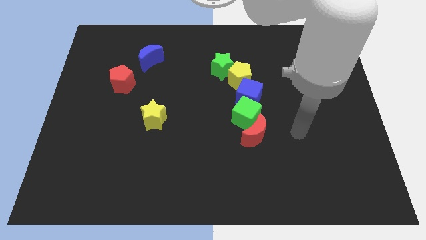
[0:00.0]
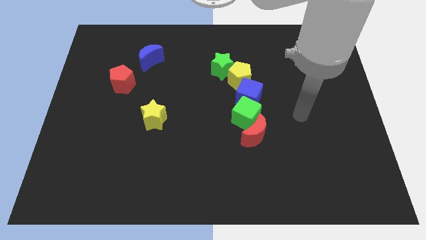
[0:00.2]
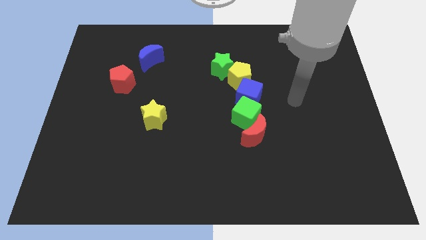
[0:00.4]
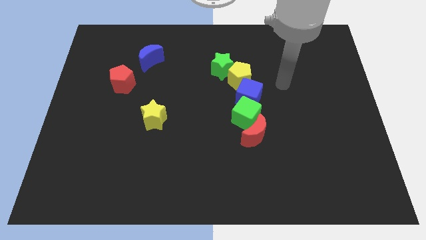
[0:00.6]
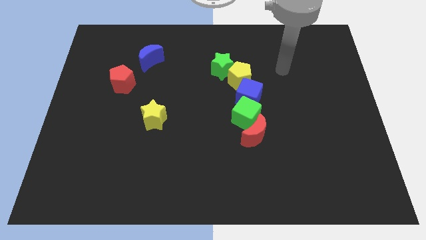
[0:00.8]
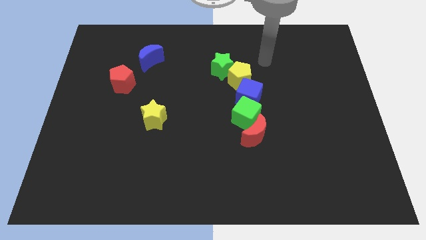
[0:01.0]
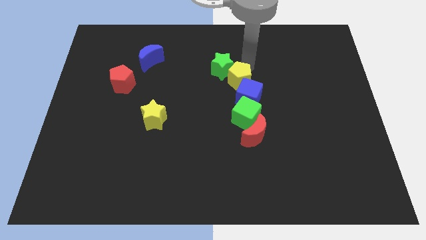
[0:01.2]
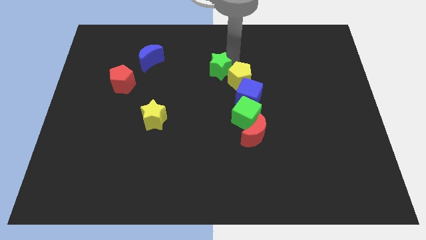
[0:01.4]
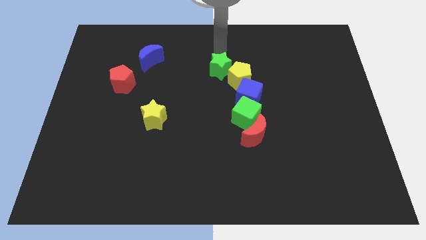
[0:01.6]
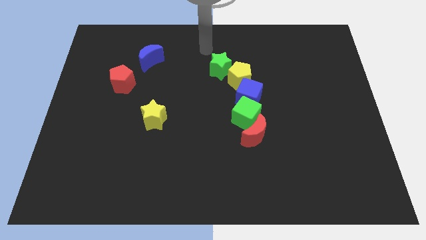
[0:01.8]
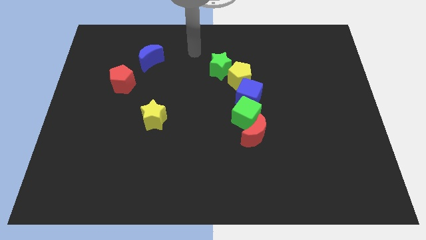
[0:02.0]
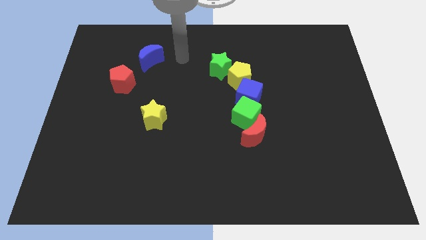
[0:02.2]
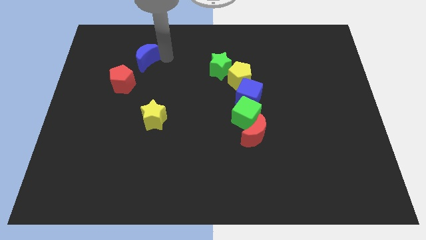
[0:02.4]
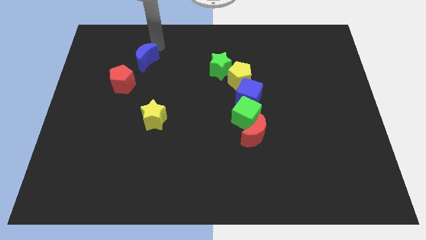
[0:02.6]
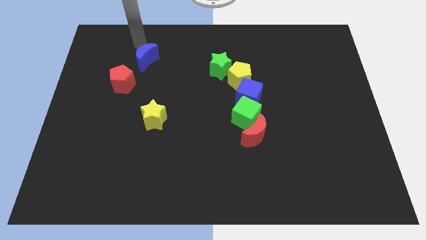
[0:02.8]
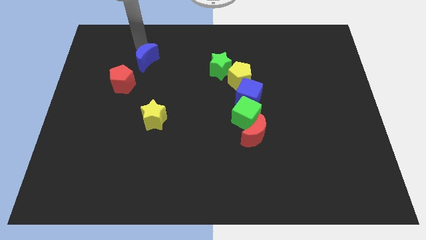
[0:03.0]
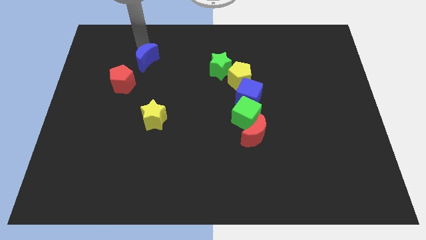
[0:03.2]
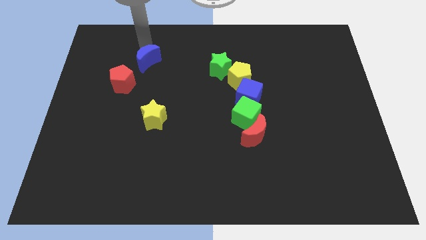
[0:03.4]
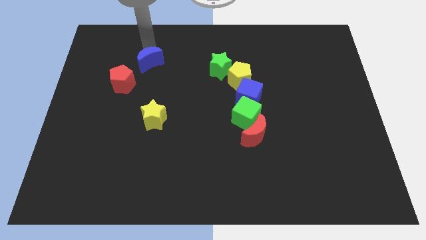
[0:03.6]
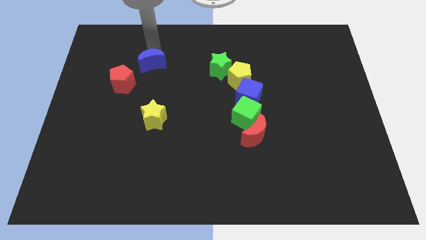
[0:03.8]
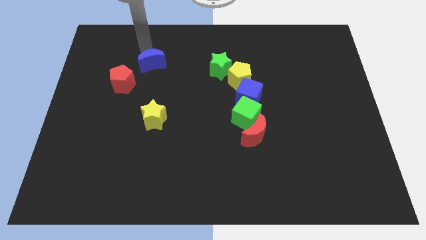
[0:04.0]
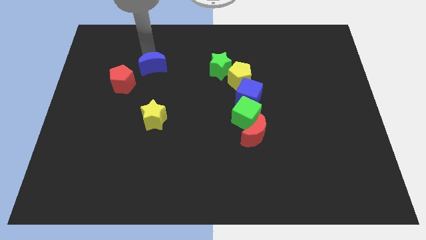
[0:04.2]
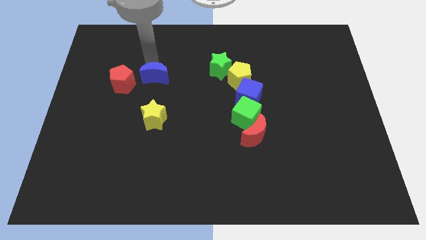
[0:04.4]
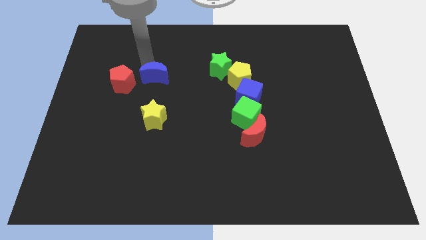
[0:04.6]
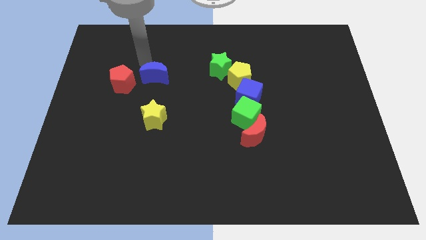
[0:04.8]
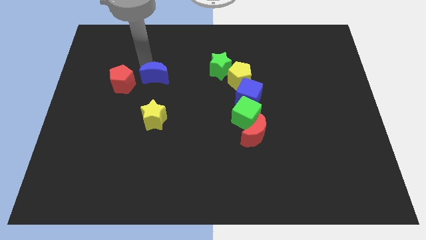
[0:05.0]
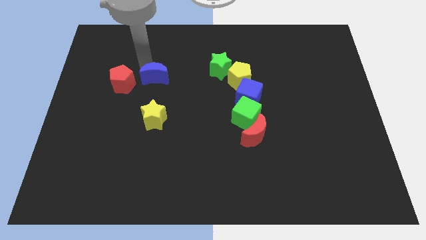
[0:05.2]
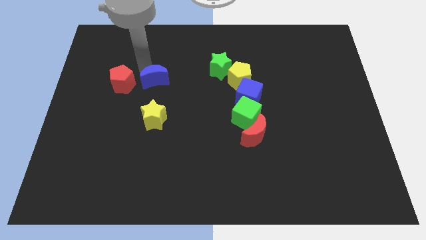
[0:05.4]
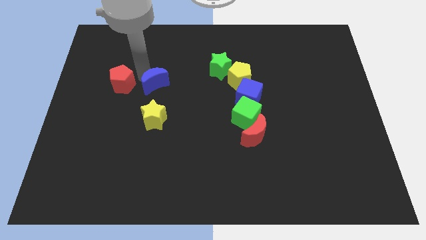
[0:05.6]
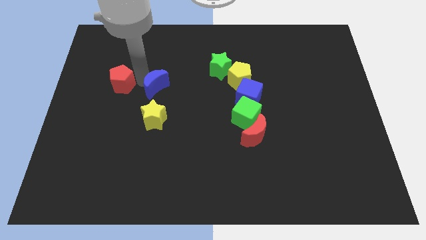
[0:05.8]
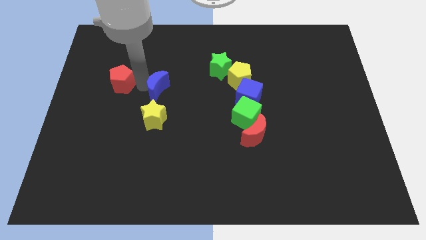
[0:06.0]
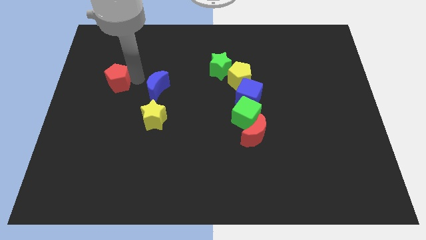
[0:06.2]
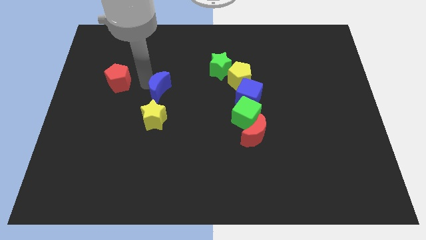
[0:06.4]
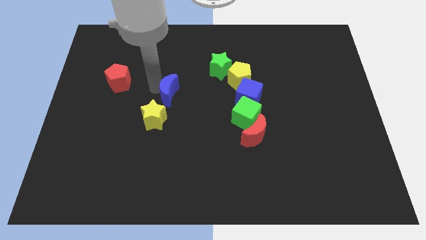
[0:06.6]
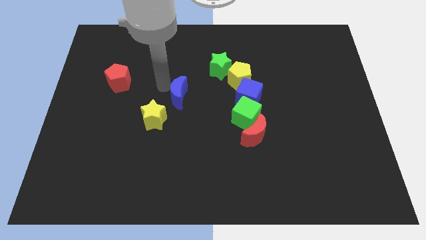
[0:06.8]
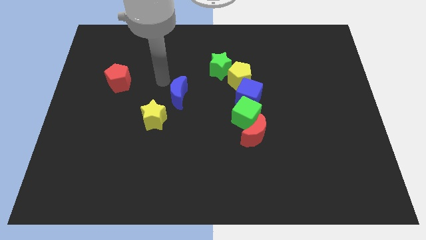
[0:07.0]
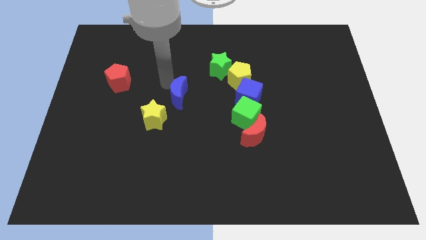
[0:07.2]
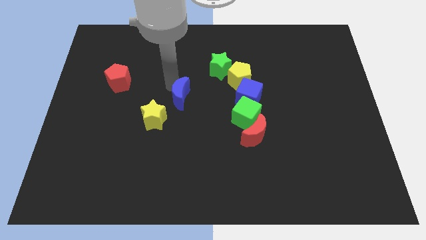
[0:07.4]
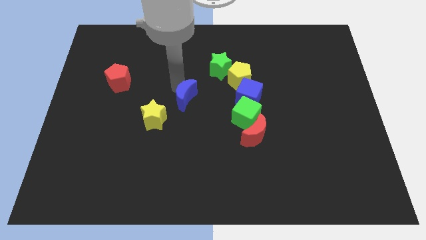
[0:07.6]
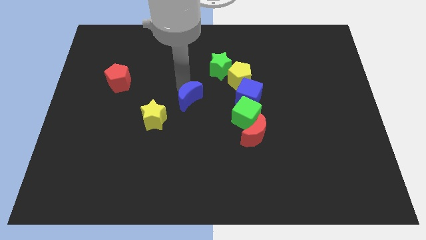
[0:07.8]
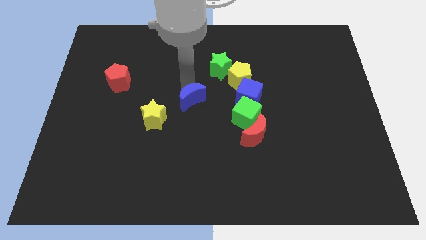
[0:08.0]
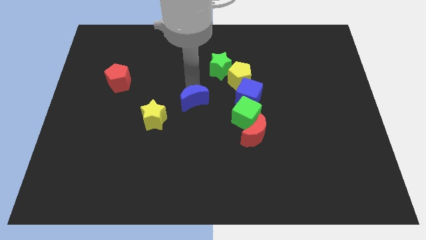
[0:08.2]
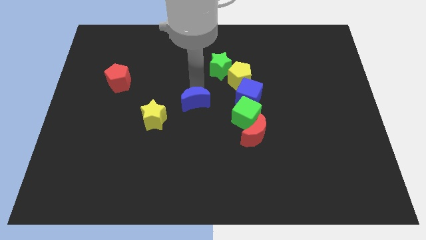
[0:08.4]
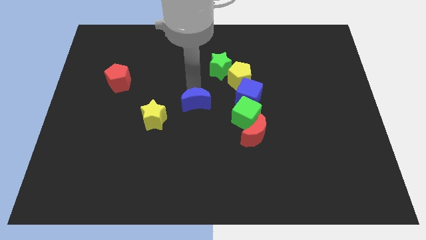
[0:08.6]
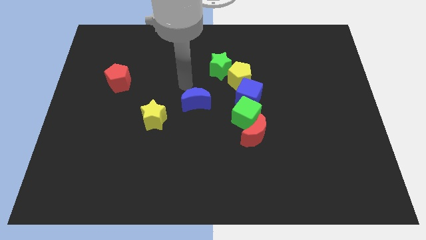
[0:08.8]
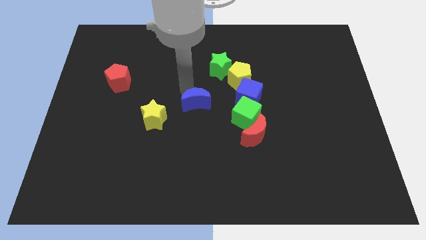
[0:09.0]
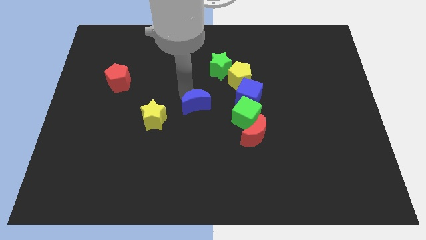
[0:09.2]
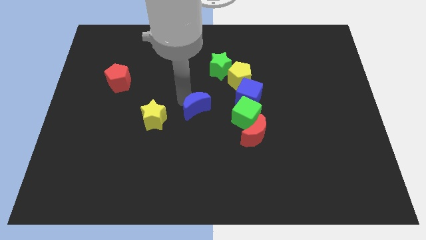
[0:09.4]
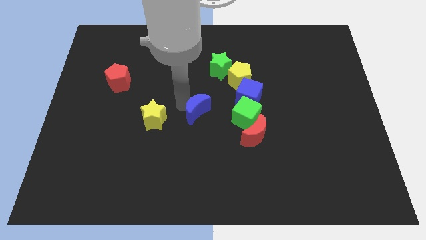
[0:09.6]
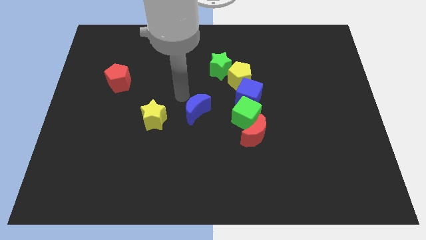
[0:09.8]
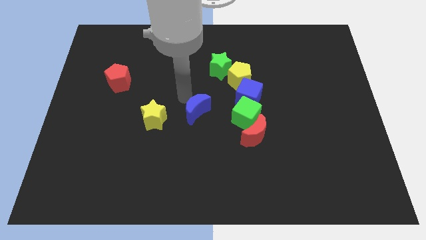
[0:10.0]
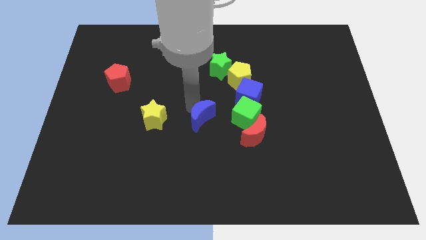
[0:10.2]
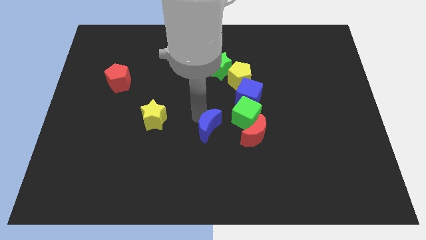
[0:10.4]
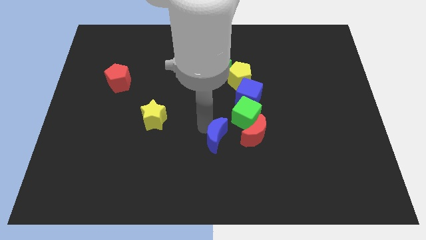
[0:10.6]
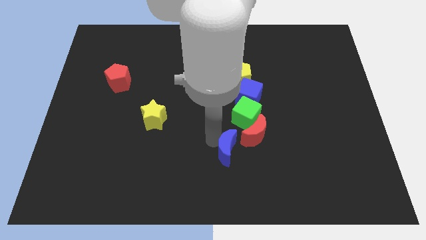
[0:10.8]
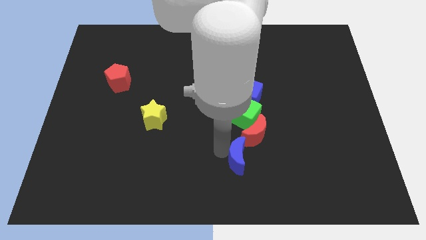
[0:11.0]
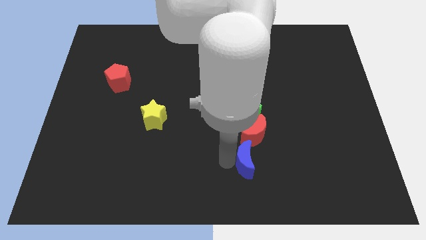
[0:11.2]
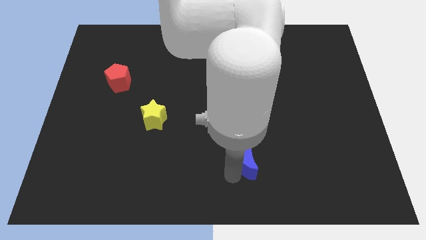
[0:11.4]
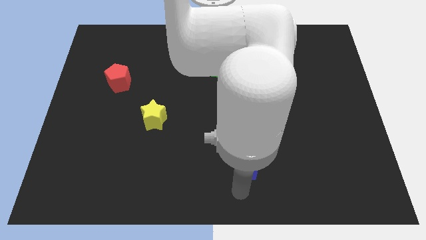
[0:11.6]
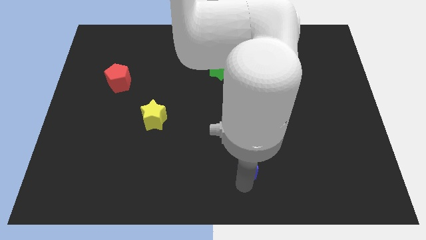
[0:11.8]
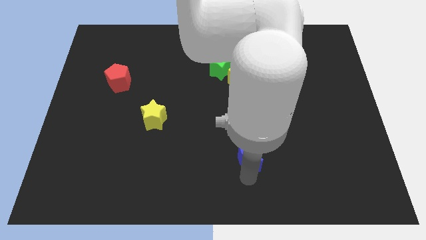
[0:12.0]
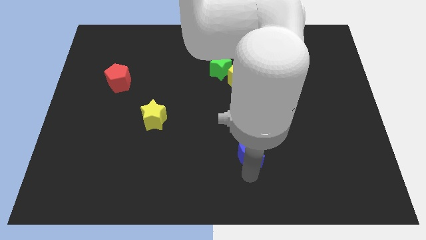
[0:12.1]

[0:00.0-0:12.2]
move the blue moon below the blue cube

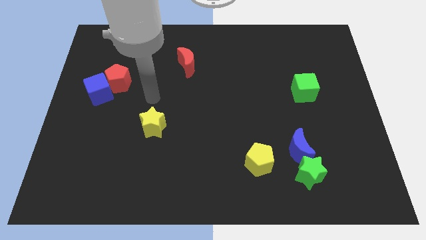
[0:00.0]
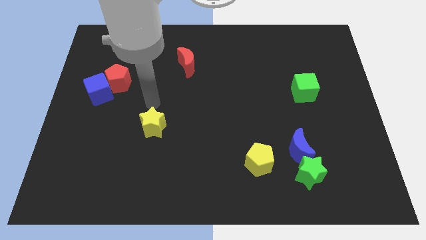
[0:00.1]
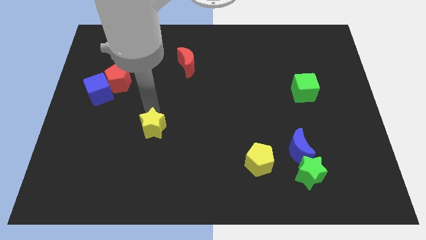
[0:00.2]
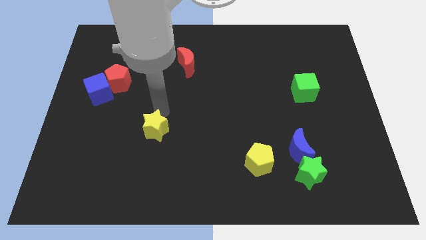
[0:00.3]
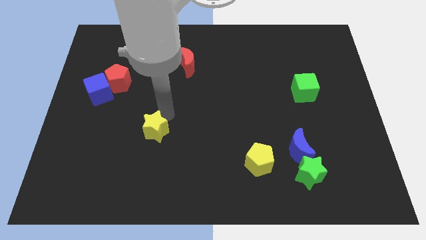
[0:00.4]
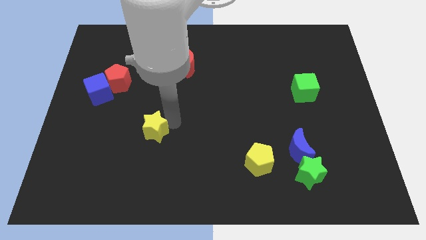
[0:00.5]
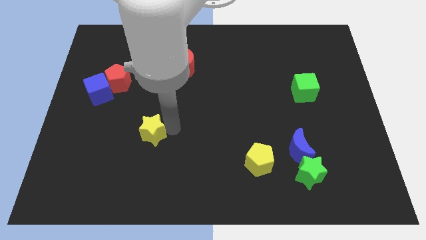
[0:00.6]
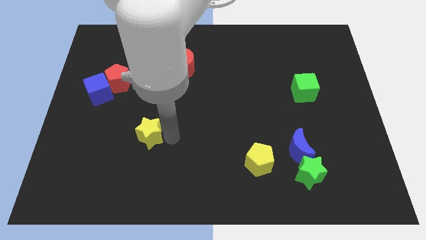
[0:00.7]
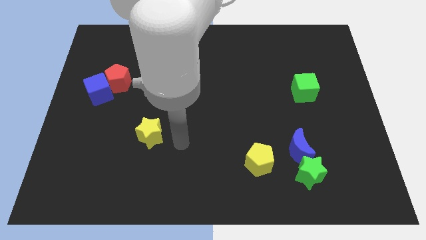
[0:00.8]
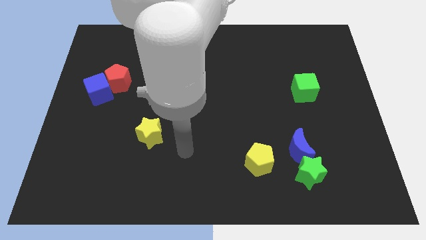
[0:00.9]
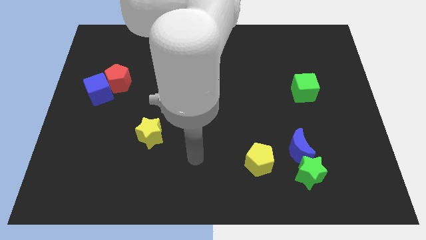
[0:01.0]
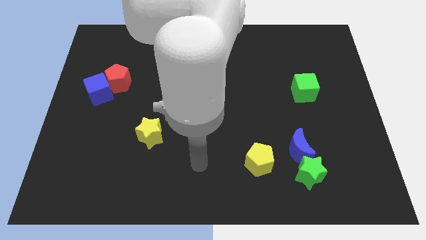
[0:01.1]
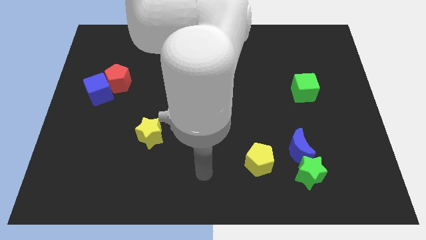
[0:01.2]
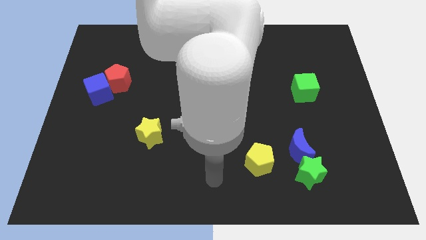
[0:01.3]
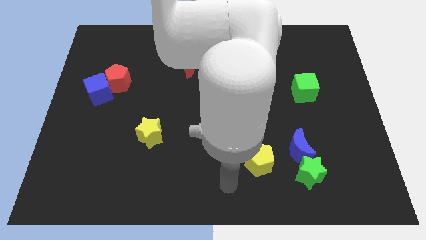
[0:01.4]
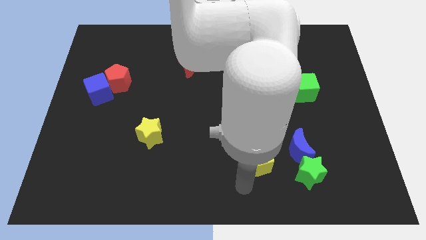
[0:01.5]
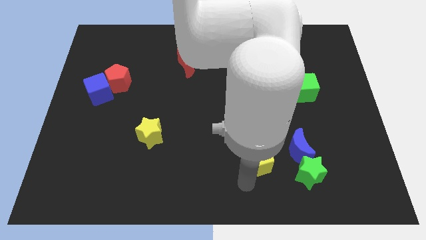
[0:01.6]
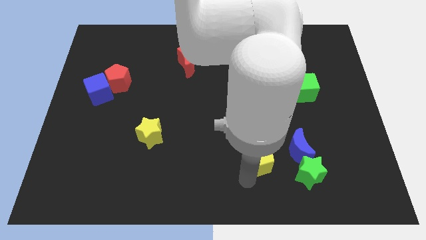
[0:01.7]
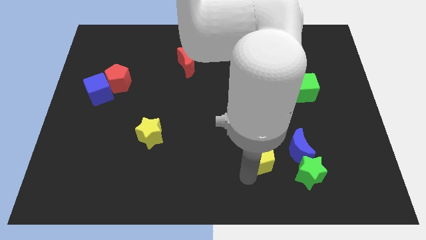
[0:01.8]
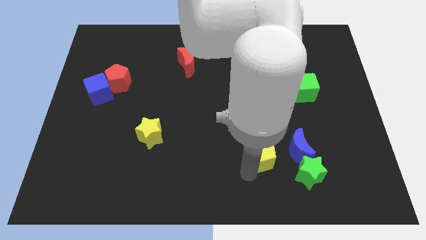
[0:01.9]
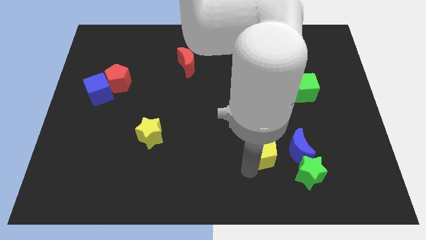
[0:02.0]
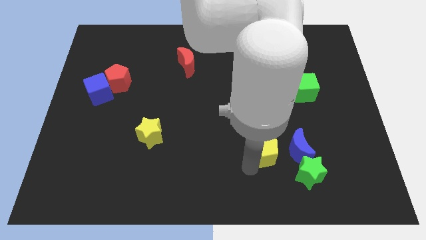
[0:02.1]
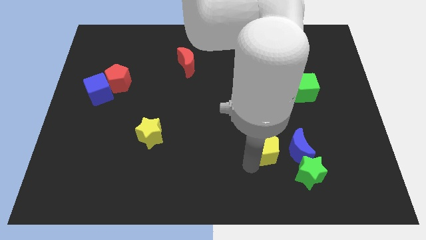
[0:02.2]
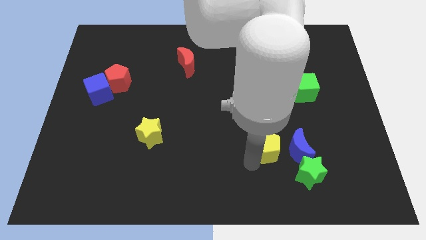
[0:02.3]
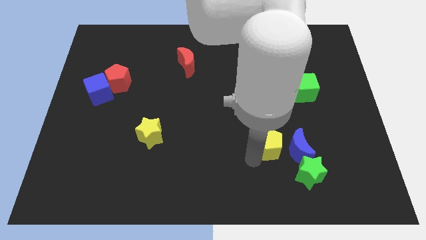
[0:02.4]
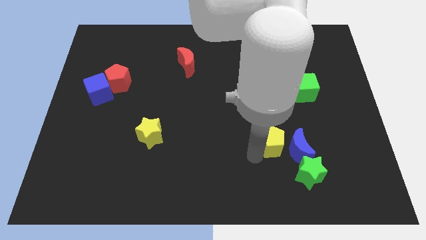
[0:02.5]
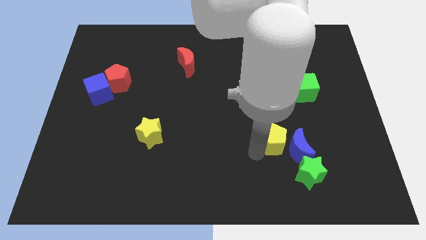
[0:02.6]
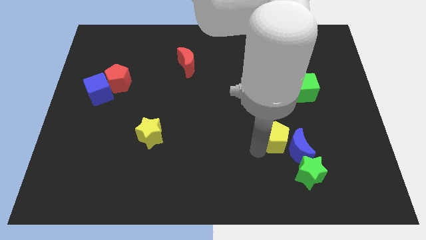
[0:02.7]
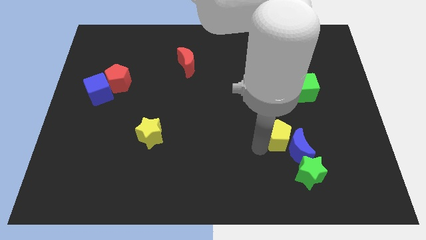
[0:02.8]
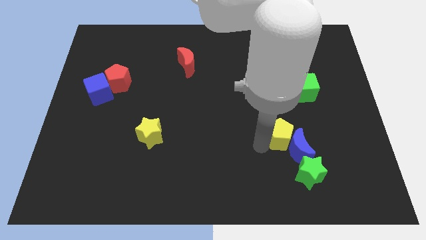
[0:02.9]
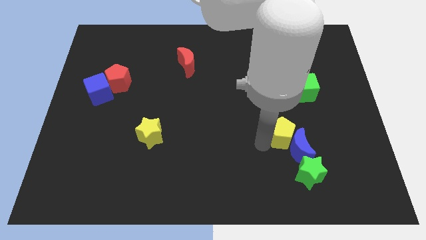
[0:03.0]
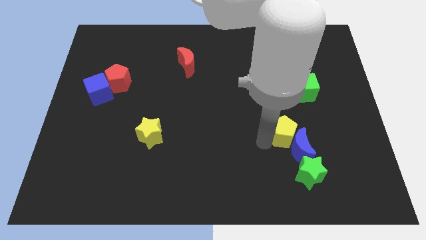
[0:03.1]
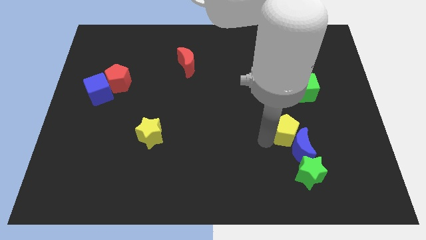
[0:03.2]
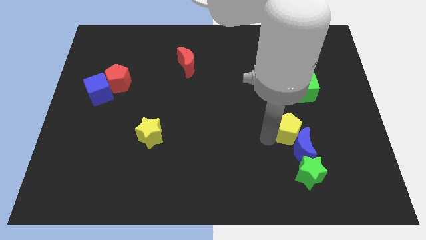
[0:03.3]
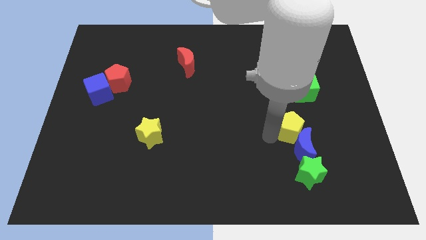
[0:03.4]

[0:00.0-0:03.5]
put the yellow pentagon below the green cube
